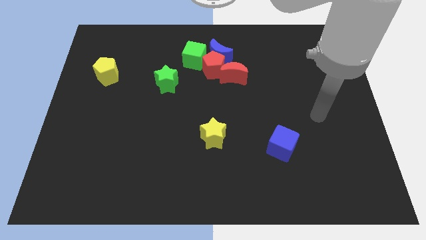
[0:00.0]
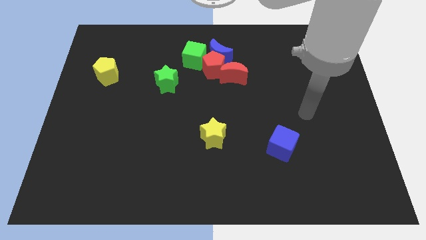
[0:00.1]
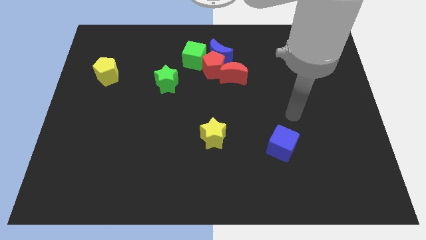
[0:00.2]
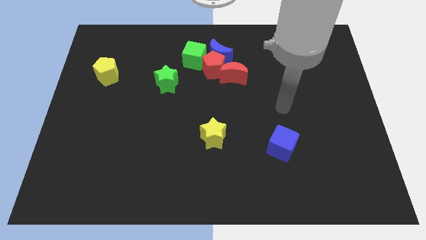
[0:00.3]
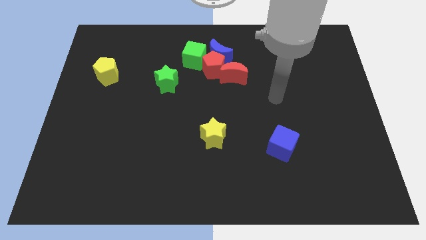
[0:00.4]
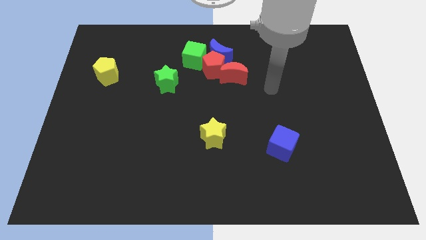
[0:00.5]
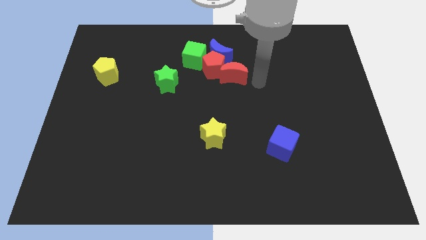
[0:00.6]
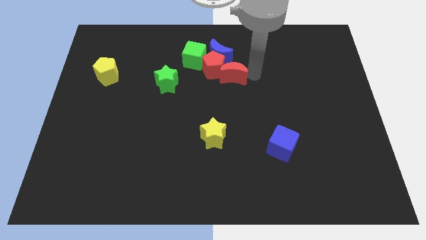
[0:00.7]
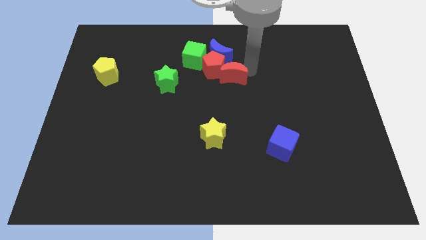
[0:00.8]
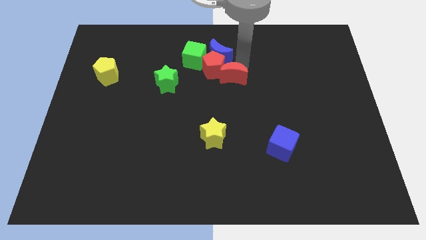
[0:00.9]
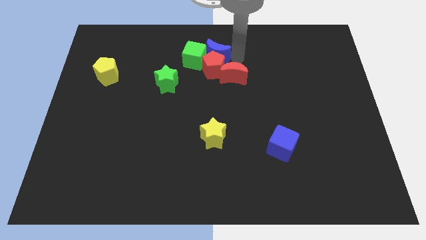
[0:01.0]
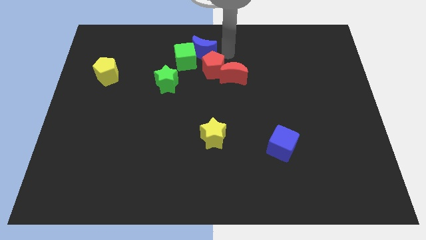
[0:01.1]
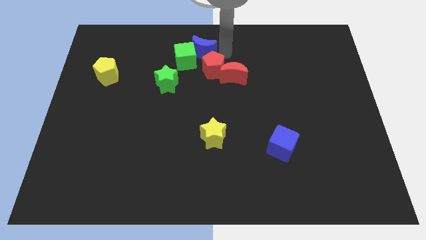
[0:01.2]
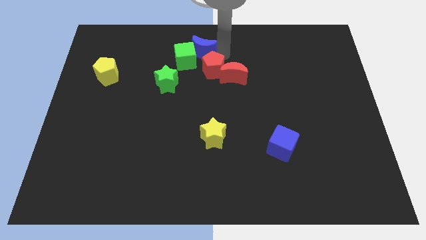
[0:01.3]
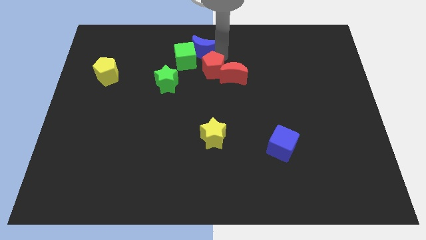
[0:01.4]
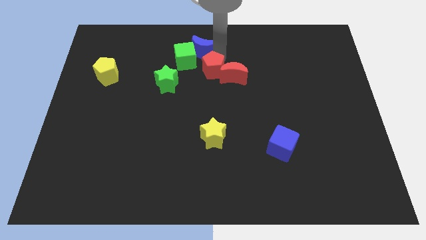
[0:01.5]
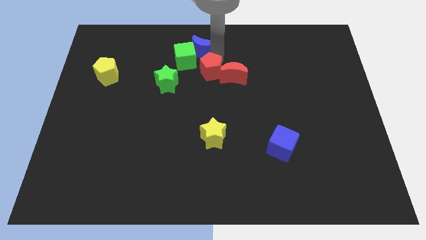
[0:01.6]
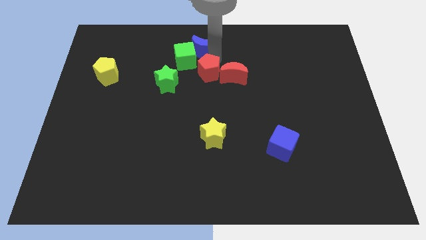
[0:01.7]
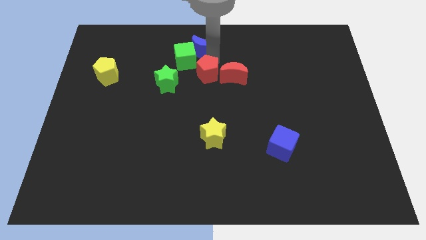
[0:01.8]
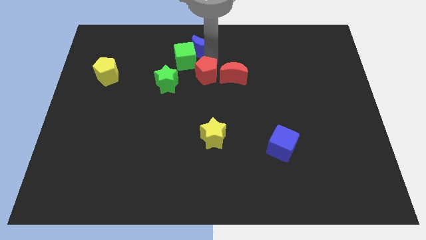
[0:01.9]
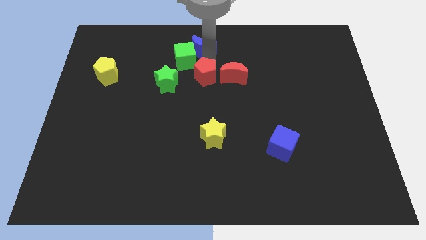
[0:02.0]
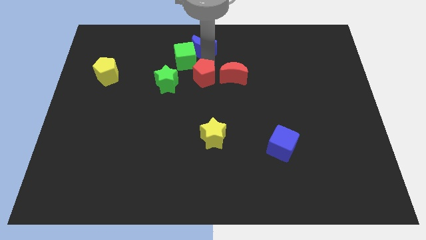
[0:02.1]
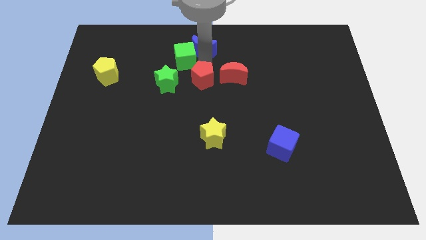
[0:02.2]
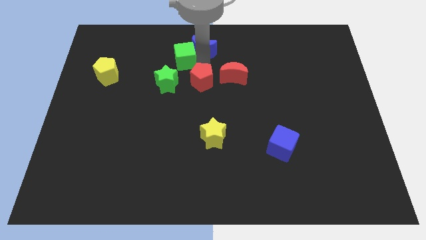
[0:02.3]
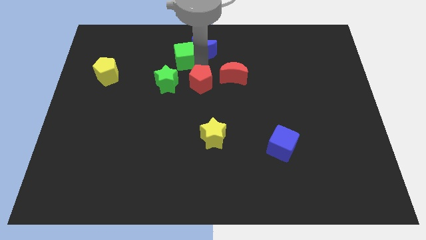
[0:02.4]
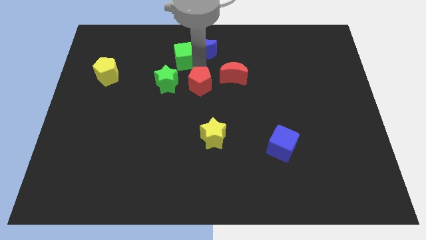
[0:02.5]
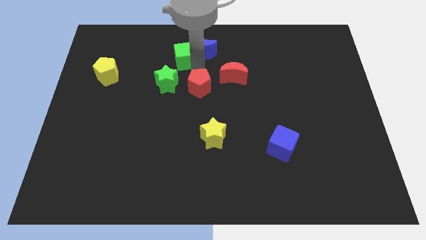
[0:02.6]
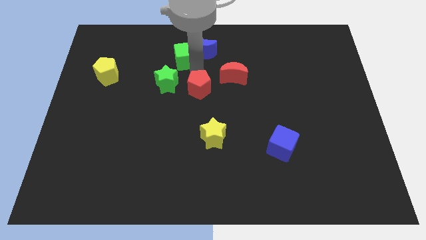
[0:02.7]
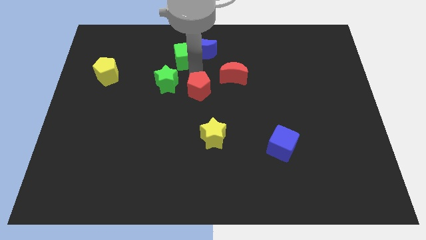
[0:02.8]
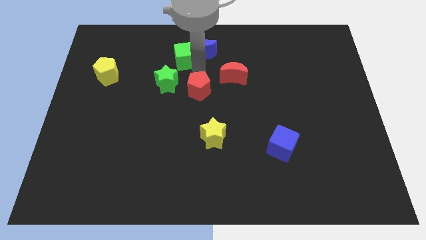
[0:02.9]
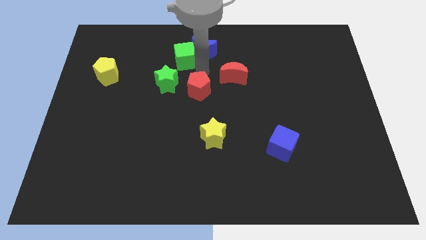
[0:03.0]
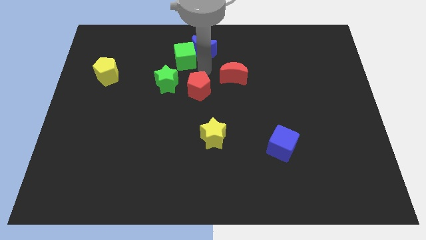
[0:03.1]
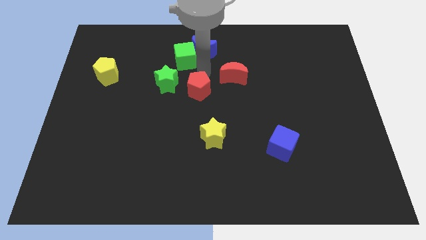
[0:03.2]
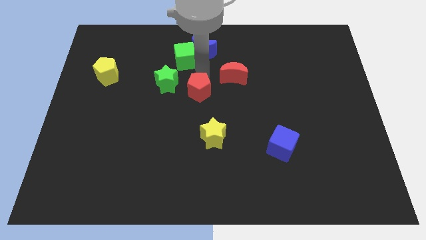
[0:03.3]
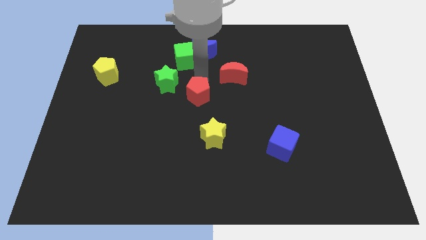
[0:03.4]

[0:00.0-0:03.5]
pull the red pentagon apart from the blue moon, red moon, and green cube

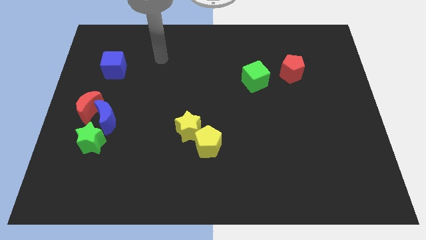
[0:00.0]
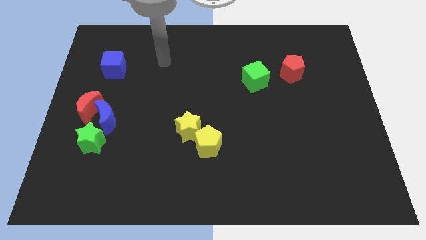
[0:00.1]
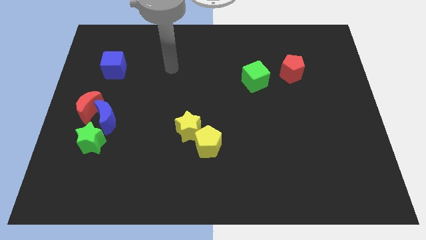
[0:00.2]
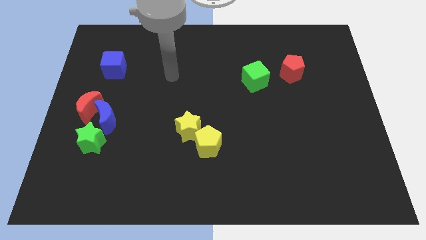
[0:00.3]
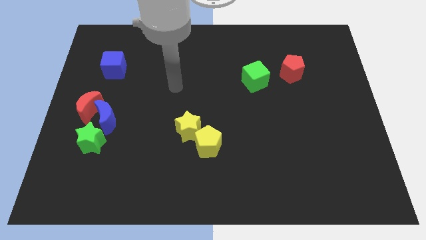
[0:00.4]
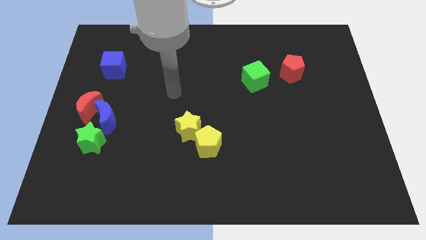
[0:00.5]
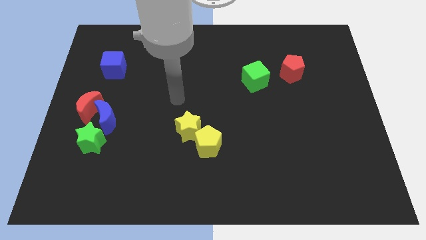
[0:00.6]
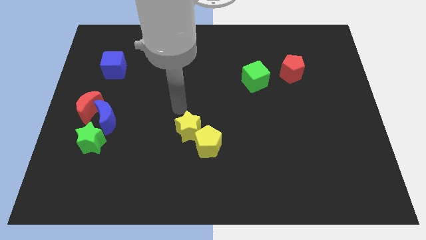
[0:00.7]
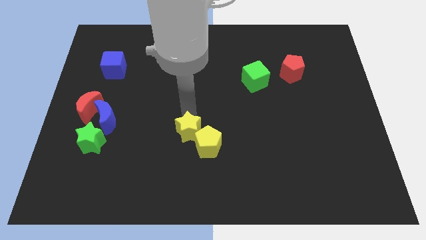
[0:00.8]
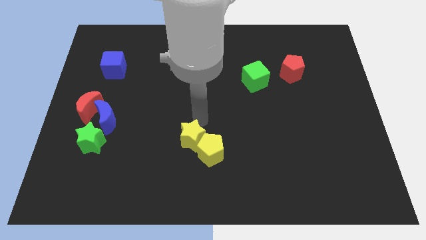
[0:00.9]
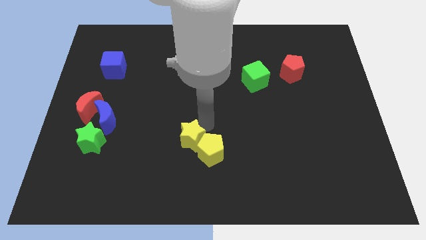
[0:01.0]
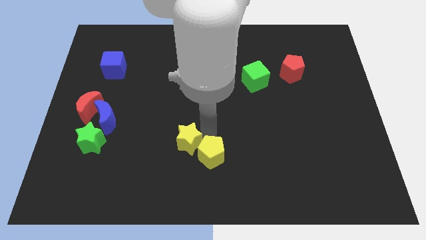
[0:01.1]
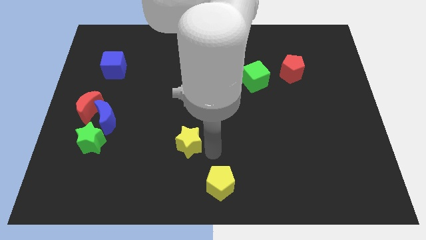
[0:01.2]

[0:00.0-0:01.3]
move the yellow star away from the yellow pentagon

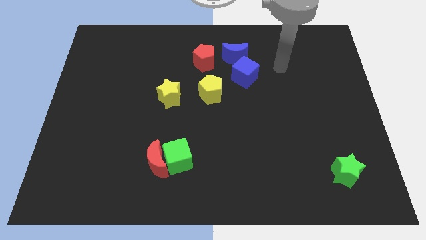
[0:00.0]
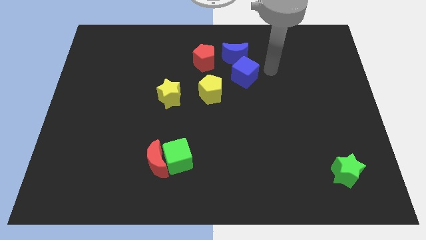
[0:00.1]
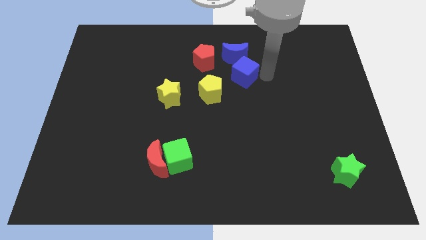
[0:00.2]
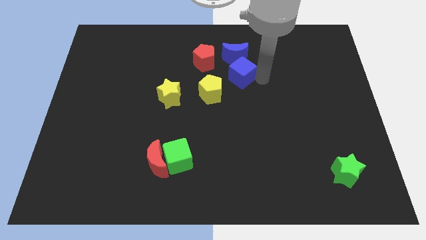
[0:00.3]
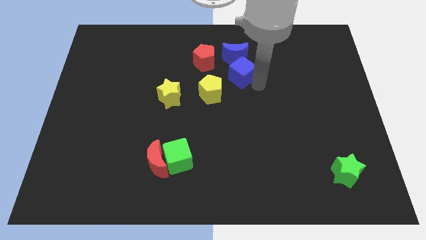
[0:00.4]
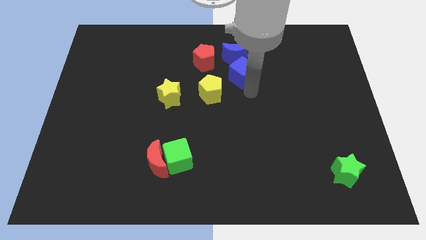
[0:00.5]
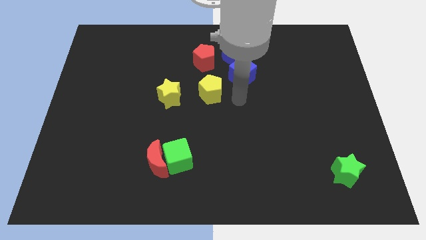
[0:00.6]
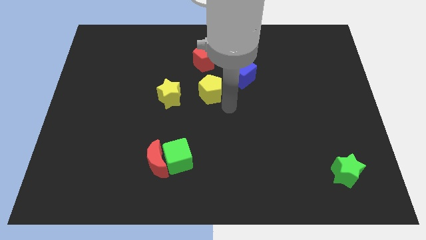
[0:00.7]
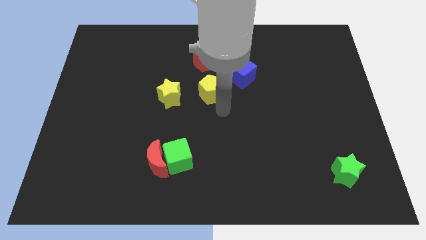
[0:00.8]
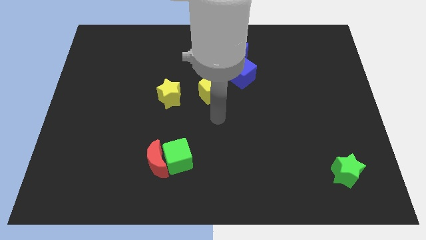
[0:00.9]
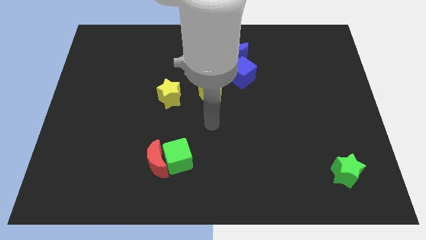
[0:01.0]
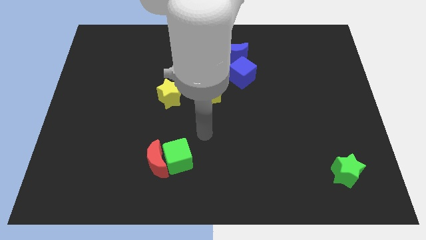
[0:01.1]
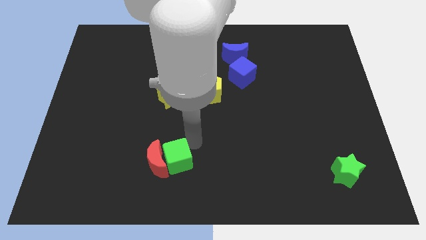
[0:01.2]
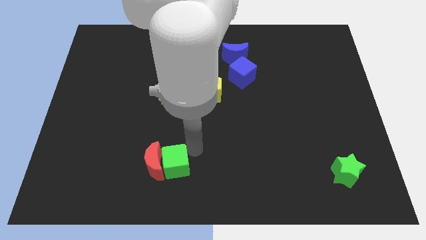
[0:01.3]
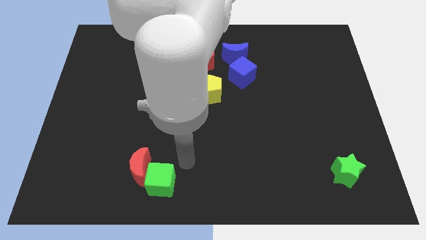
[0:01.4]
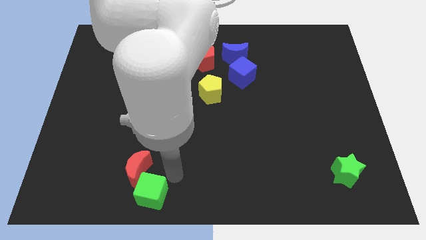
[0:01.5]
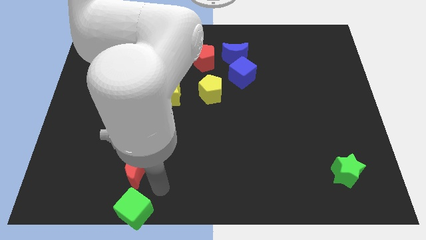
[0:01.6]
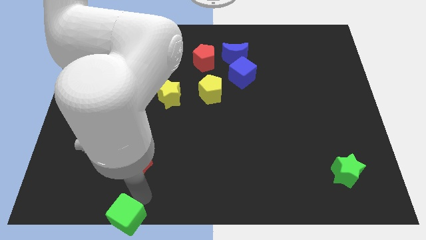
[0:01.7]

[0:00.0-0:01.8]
pull the red moon apart from the green cube

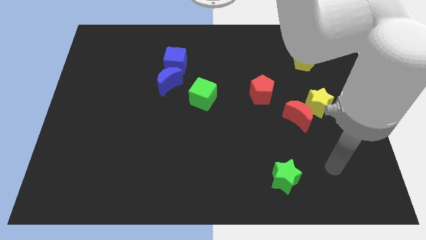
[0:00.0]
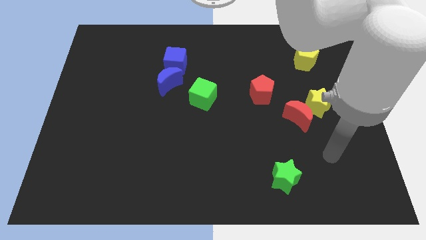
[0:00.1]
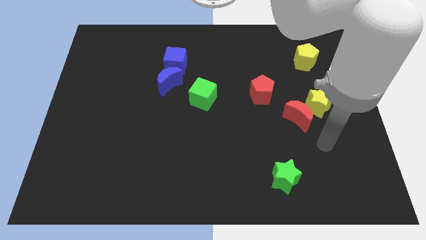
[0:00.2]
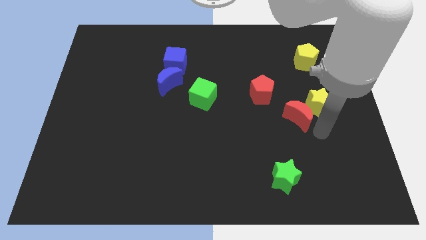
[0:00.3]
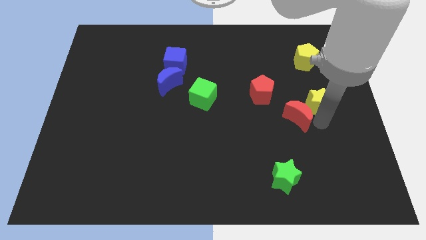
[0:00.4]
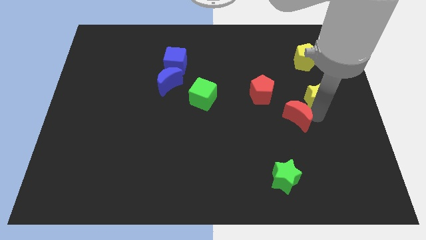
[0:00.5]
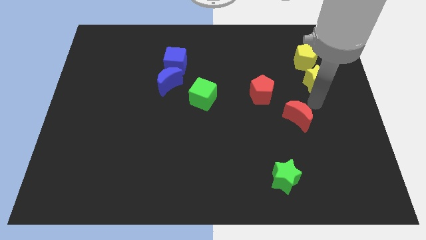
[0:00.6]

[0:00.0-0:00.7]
separate the red moon from the yellow star

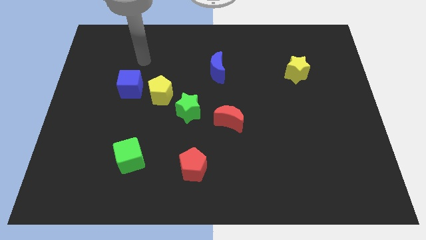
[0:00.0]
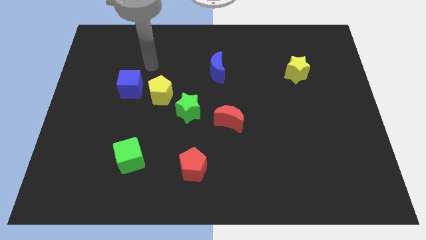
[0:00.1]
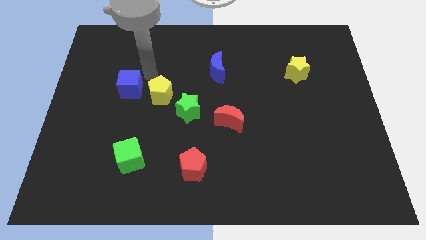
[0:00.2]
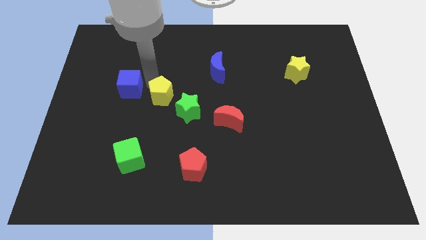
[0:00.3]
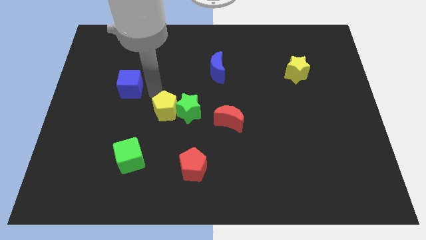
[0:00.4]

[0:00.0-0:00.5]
separate the blue cube from the yellow pentagon

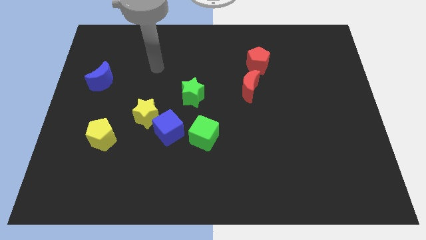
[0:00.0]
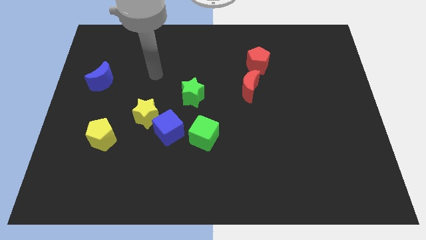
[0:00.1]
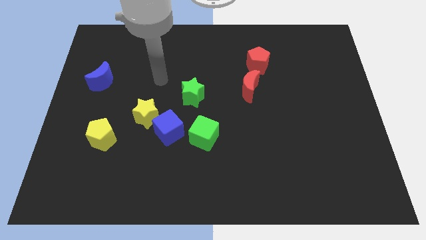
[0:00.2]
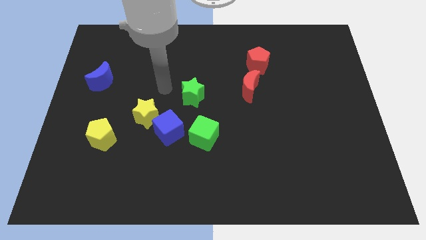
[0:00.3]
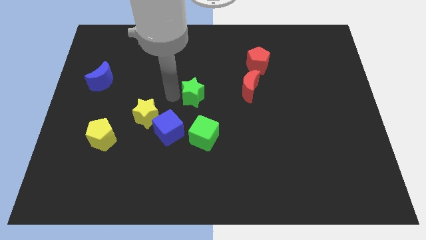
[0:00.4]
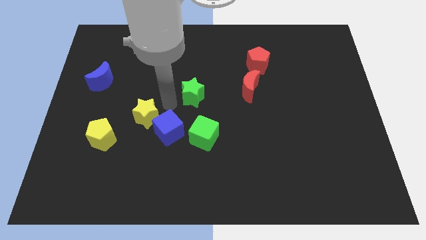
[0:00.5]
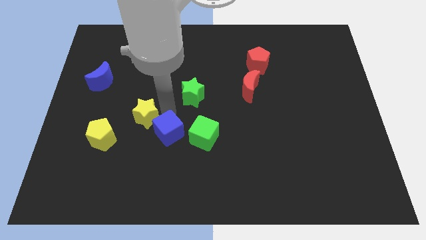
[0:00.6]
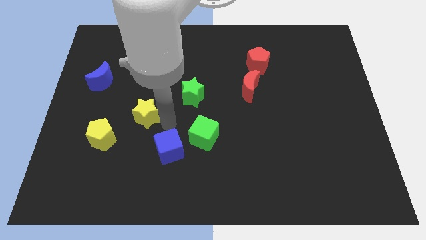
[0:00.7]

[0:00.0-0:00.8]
move the yellow star away from the blue cube

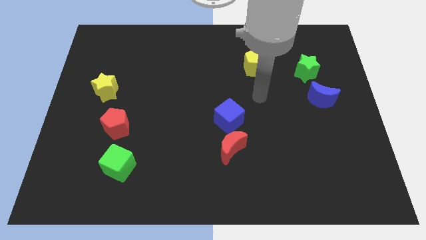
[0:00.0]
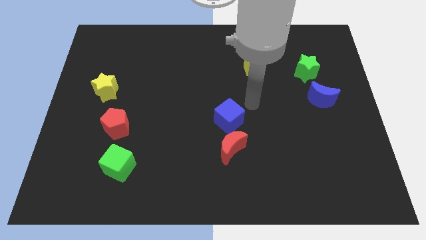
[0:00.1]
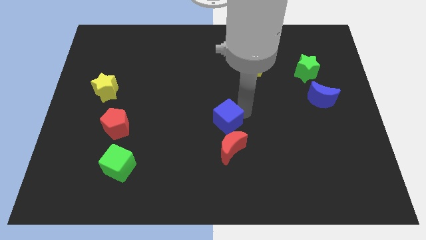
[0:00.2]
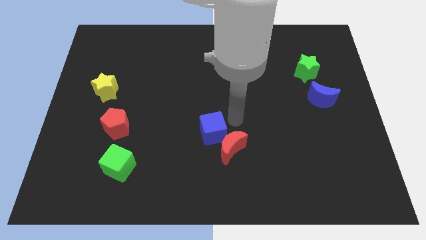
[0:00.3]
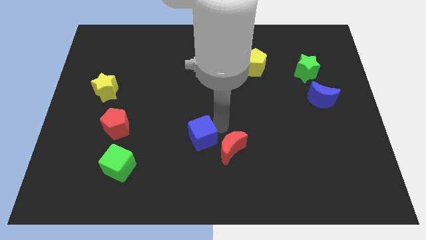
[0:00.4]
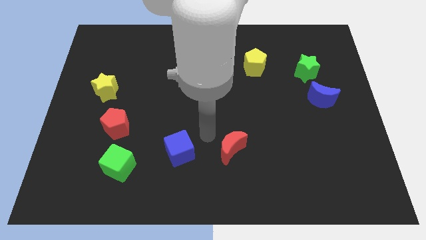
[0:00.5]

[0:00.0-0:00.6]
pull the red moon apart from the blue cube

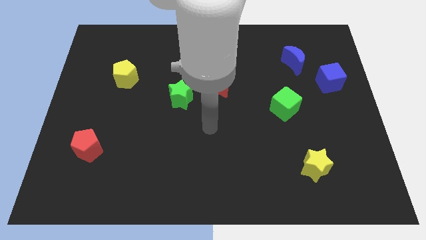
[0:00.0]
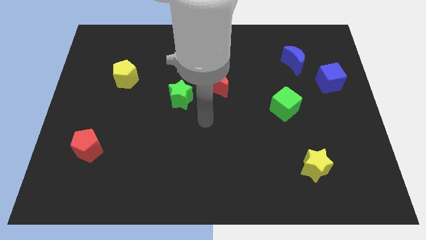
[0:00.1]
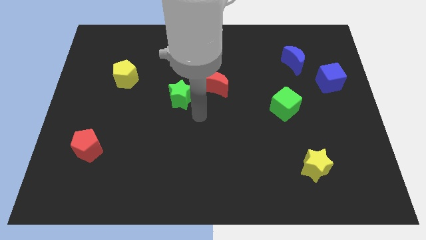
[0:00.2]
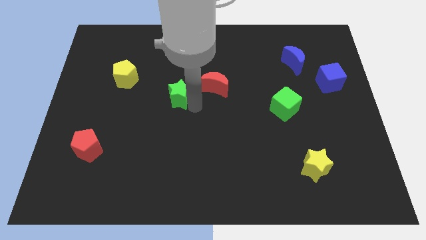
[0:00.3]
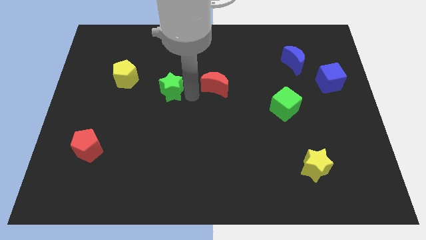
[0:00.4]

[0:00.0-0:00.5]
separate the red moon from the green star
